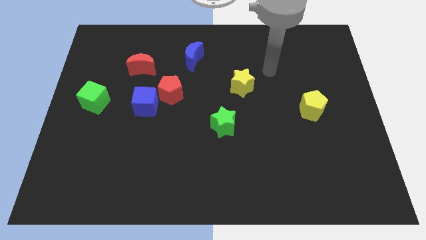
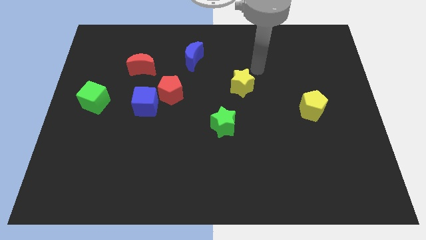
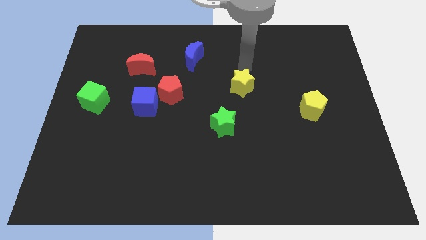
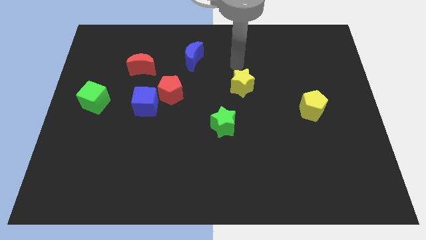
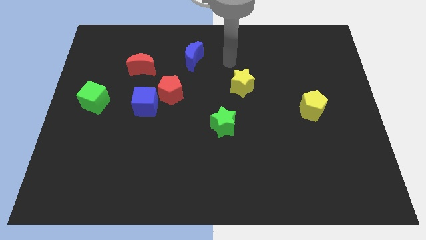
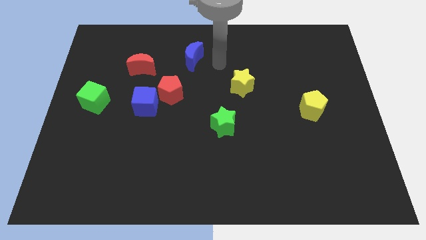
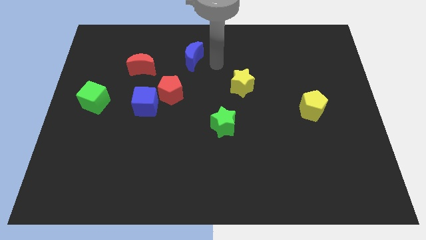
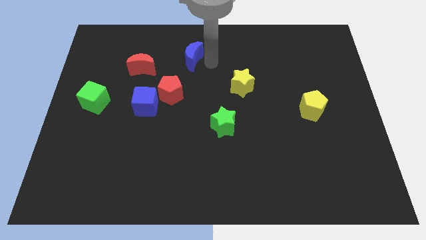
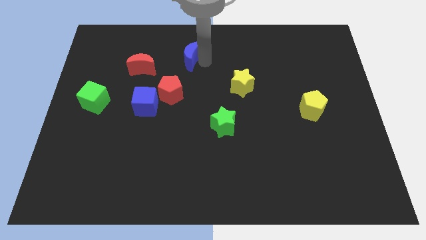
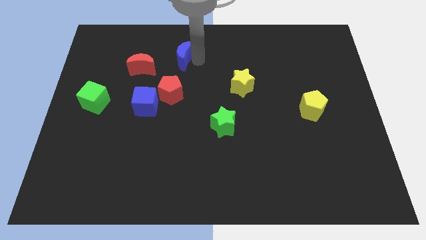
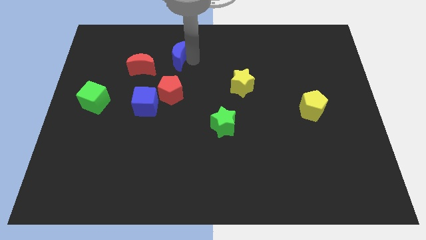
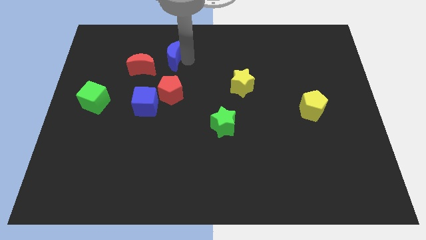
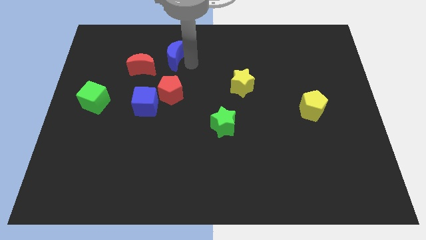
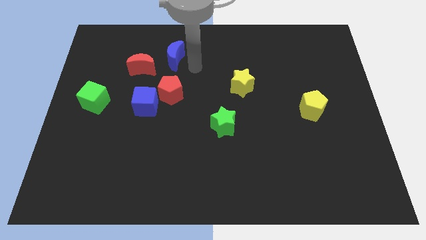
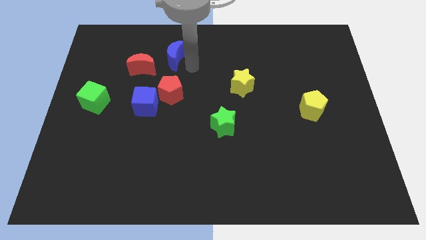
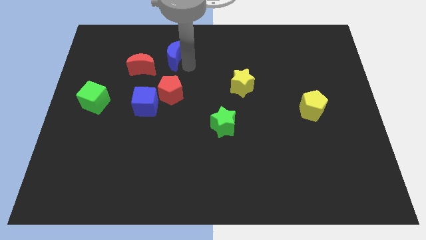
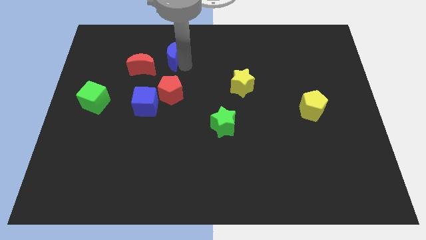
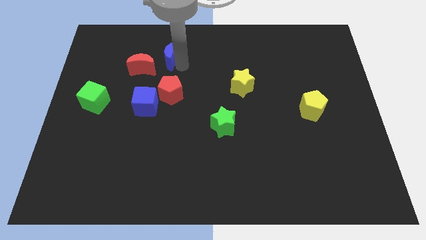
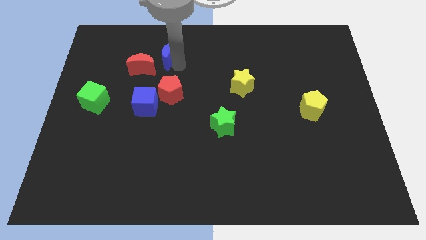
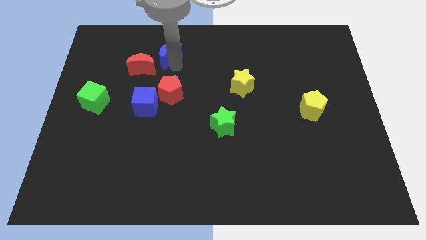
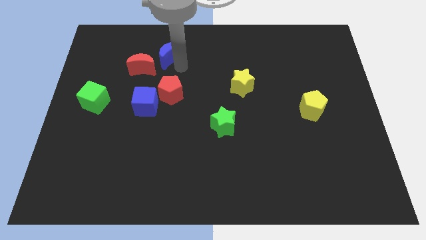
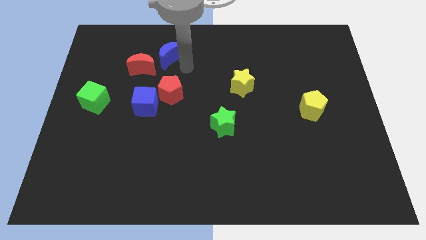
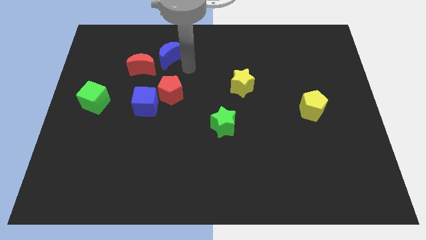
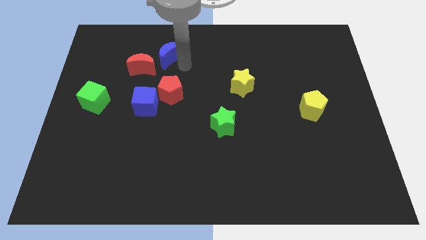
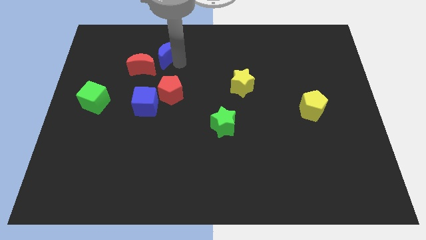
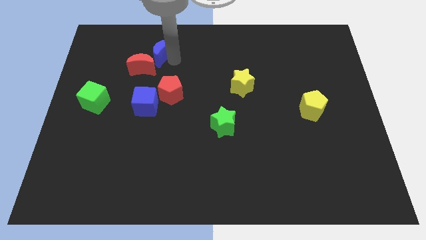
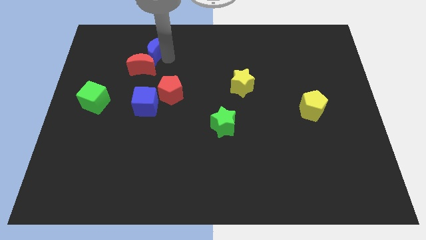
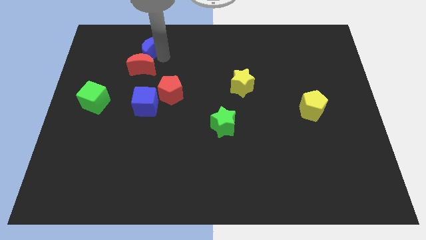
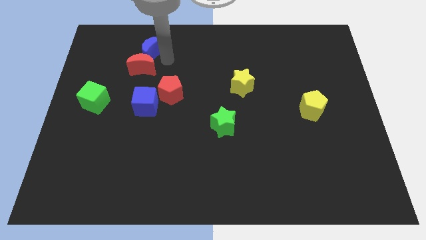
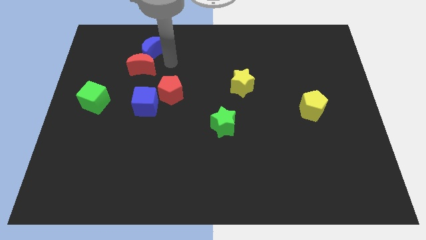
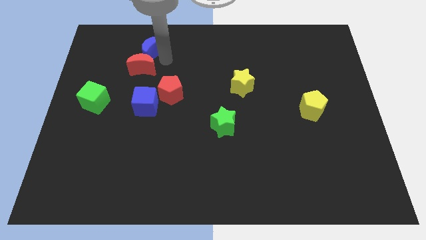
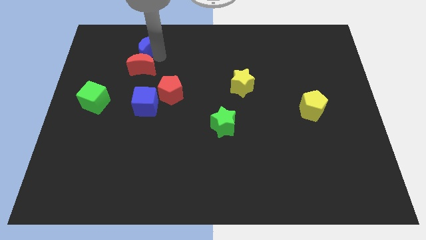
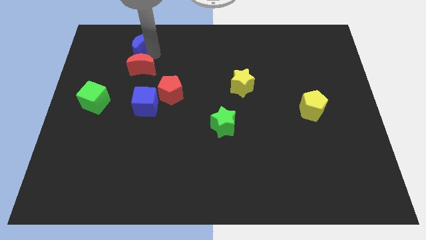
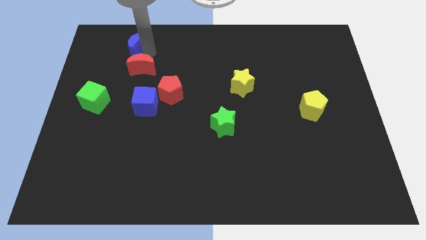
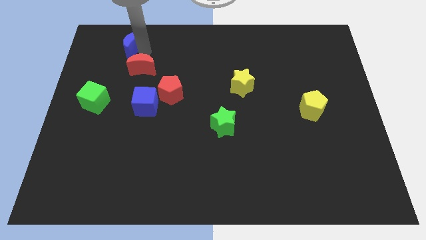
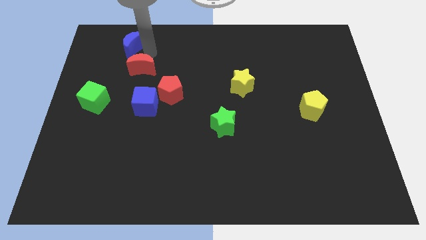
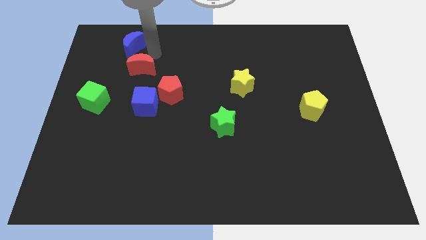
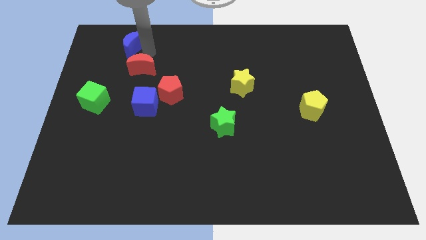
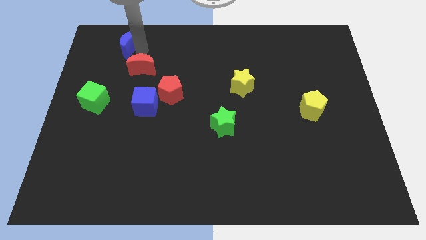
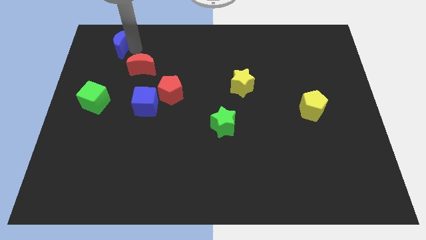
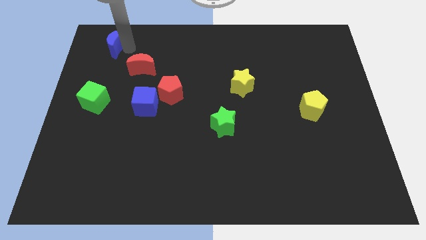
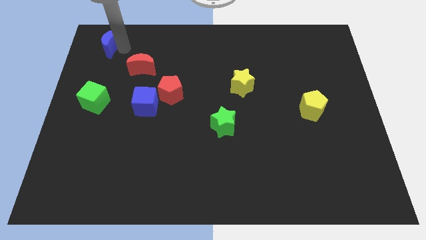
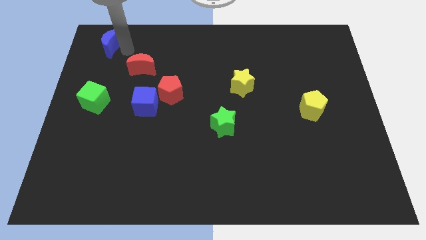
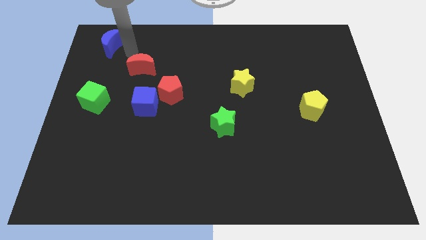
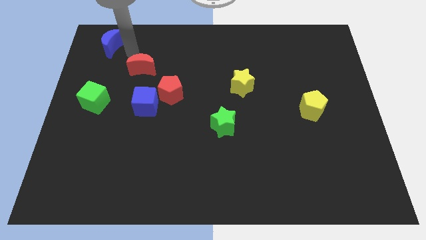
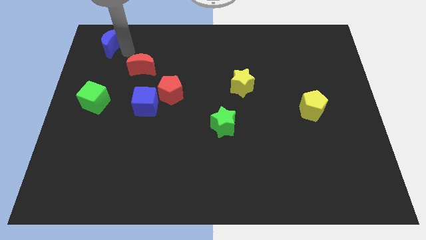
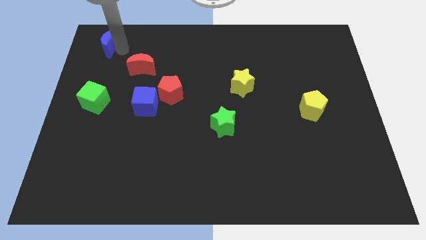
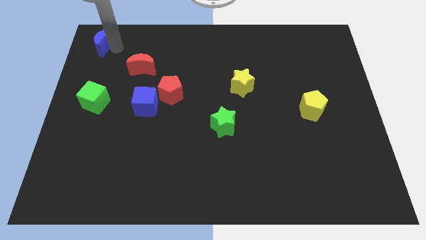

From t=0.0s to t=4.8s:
put the blue moon to the upper left corner

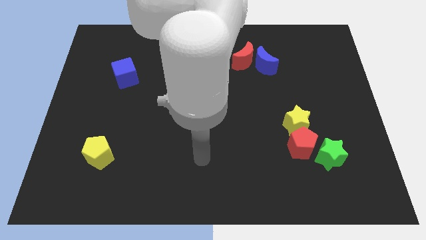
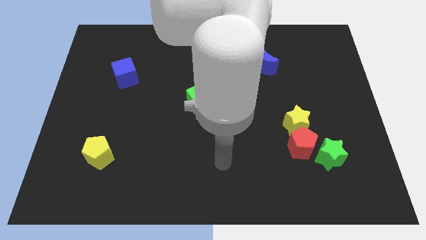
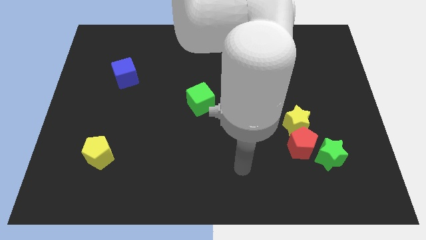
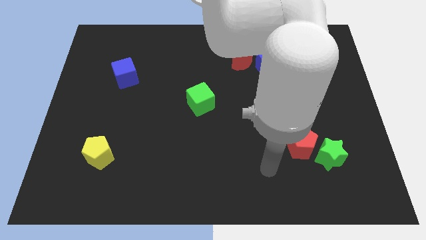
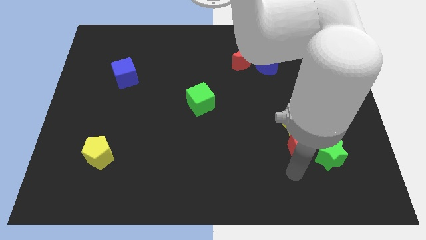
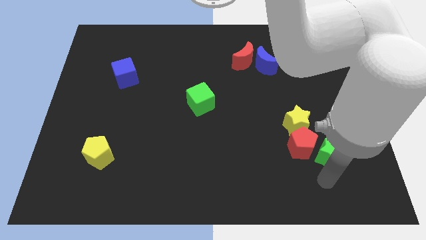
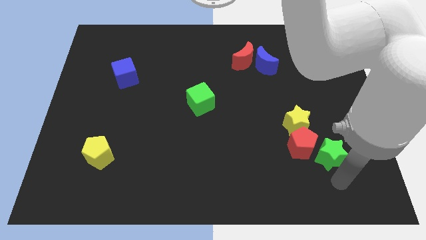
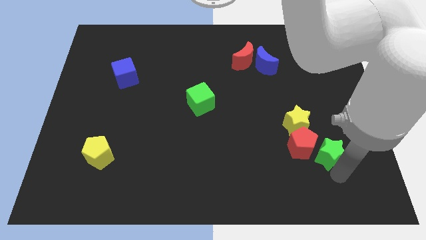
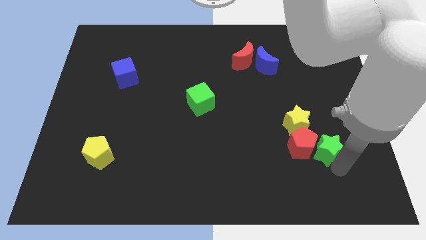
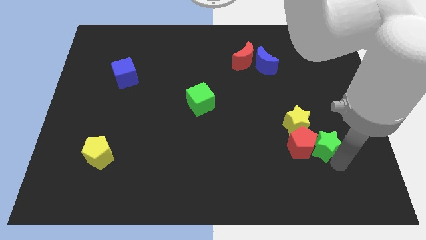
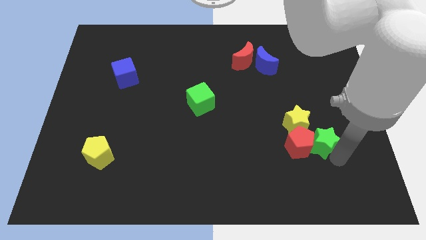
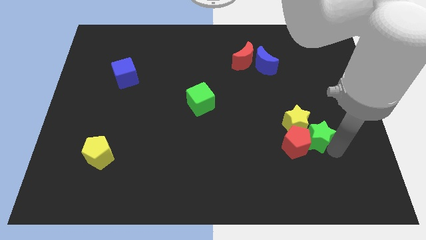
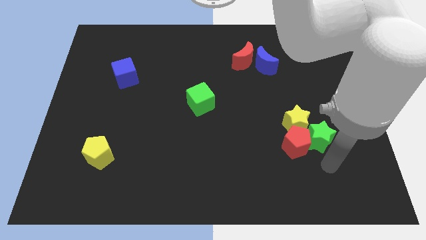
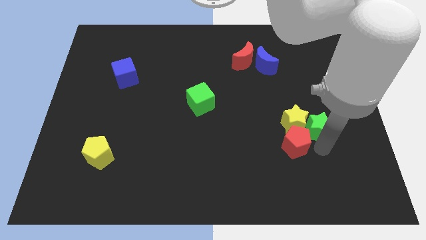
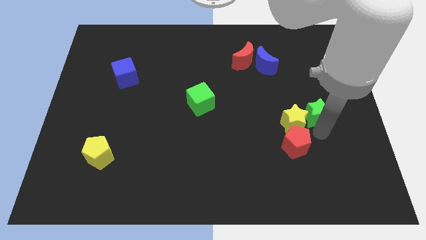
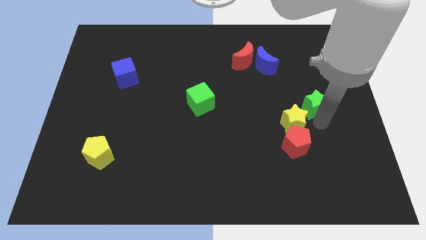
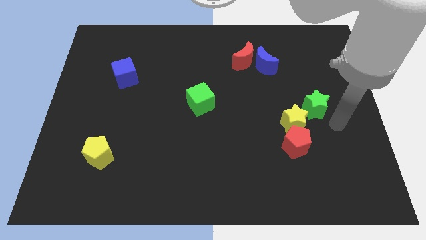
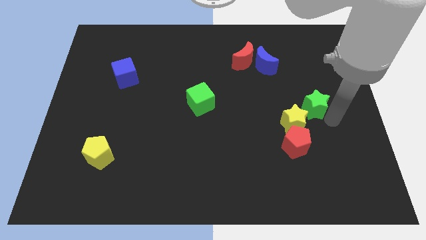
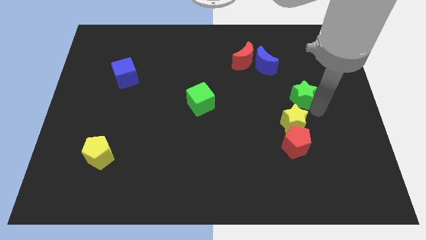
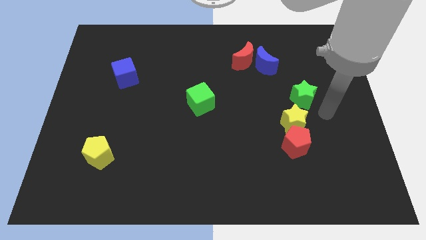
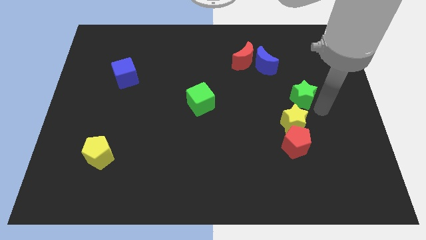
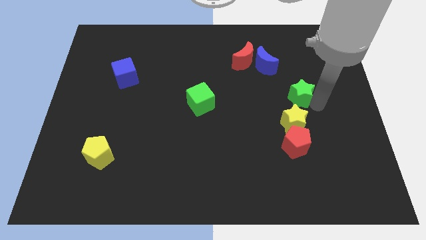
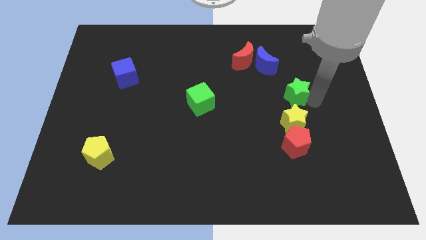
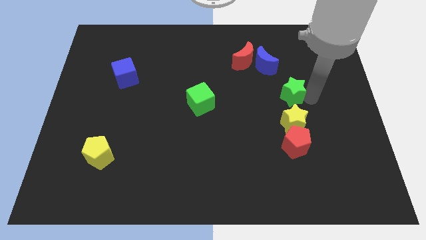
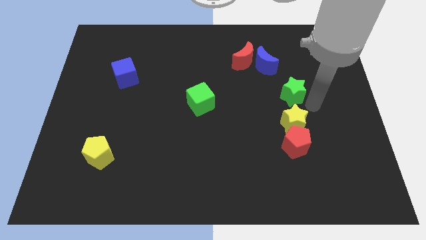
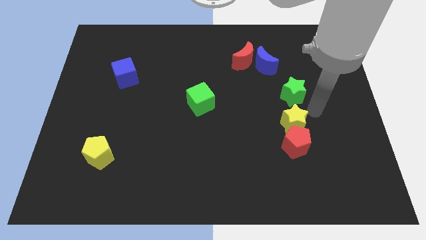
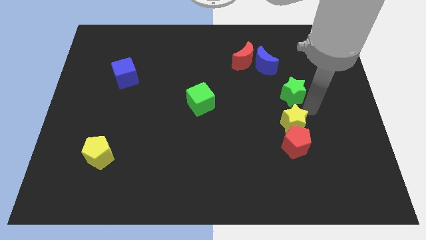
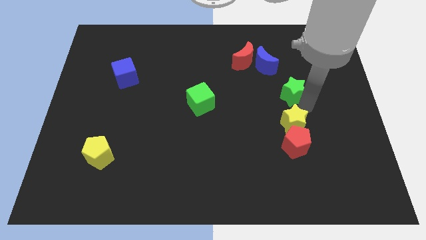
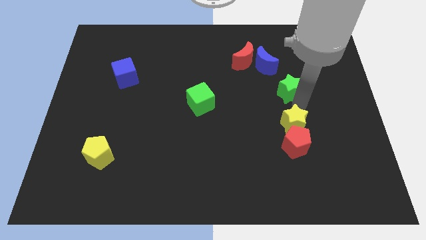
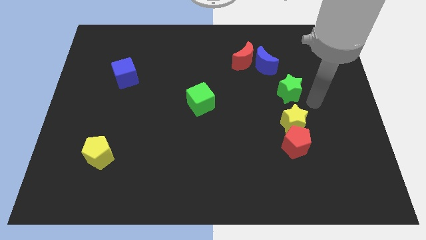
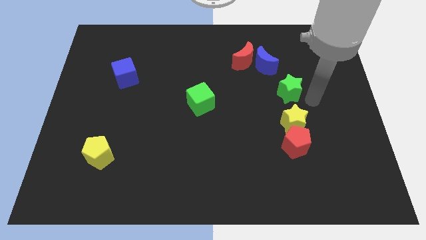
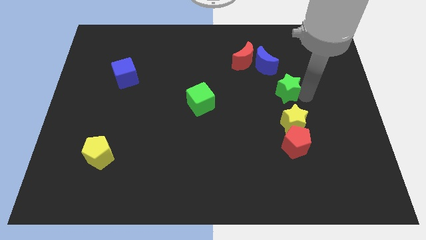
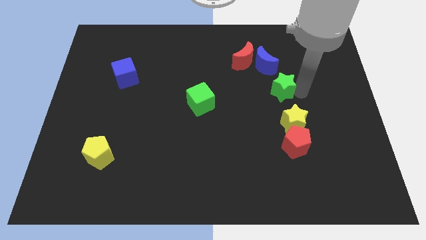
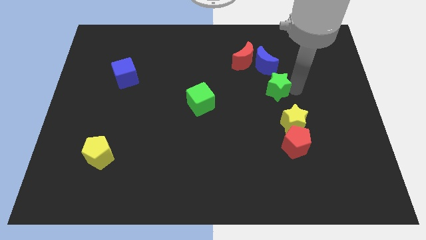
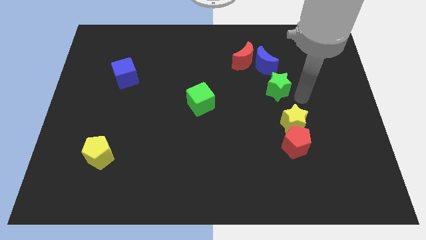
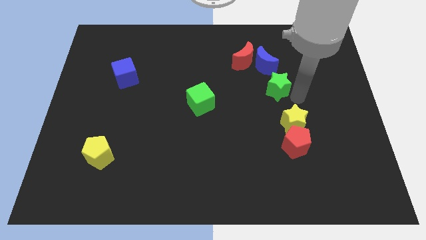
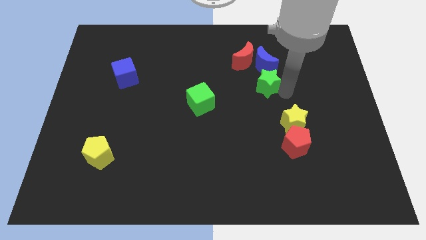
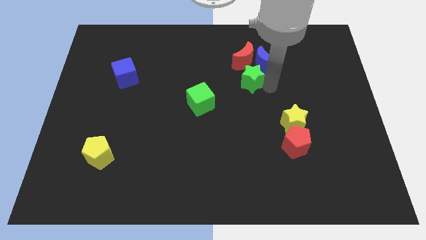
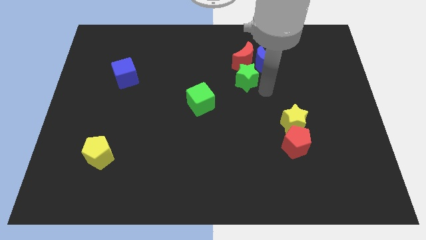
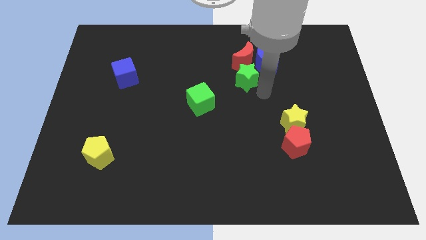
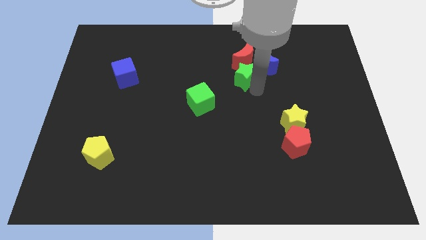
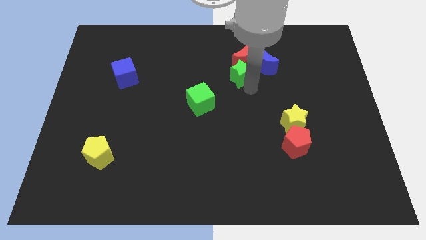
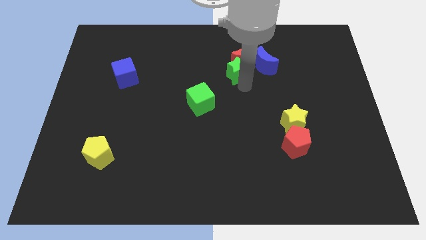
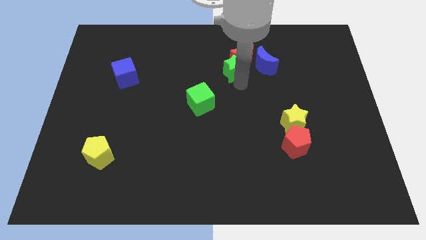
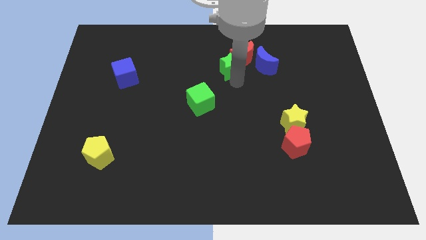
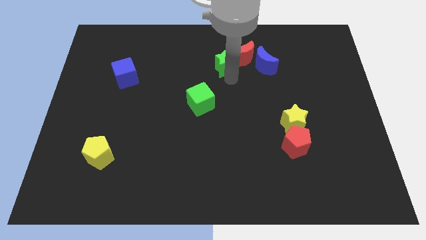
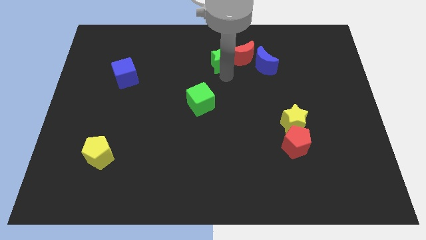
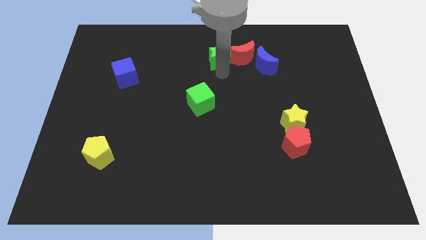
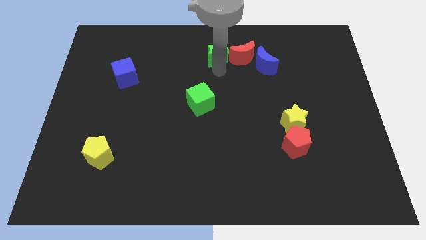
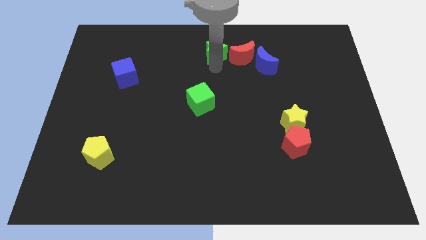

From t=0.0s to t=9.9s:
put the green star to the top
